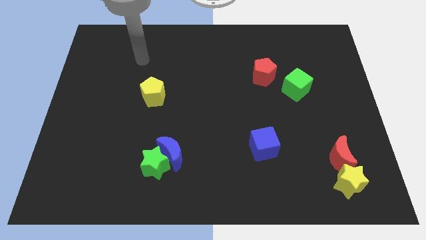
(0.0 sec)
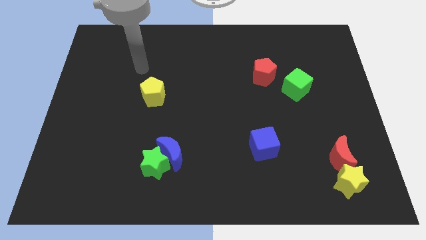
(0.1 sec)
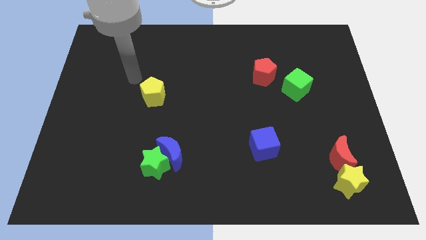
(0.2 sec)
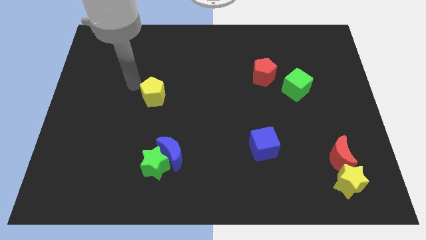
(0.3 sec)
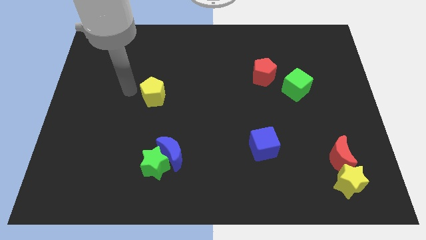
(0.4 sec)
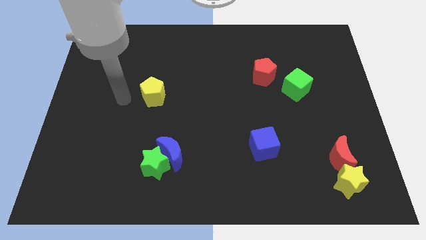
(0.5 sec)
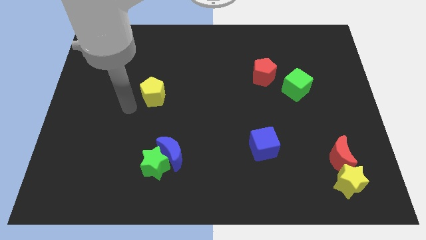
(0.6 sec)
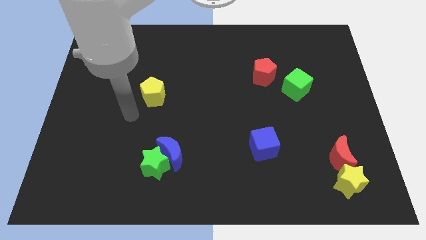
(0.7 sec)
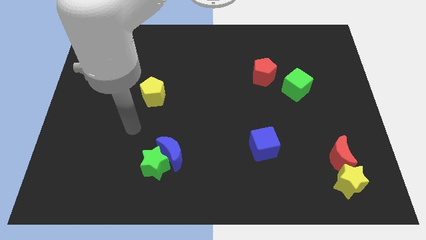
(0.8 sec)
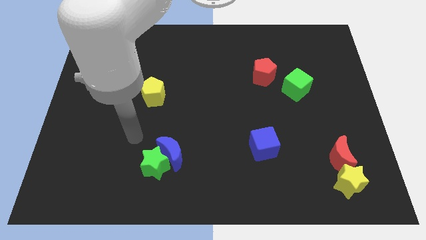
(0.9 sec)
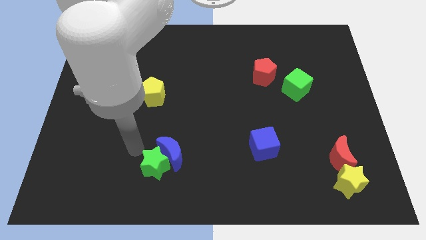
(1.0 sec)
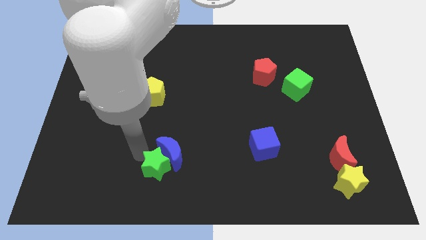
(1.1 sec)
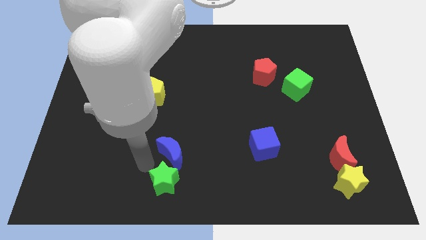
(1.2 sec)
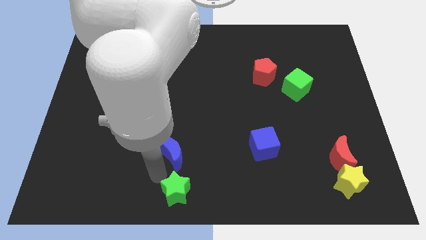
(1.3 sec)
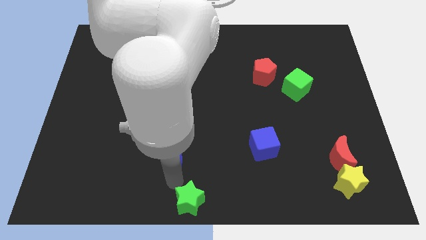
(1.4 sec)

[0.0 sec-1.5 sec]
pull the blue moon apart from the green star

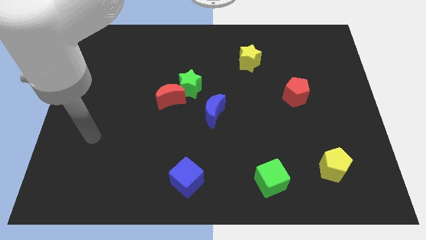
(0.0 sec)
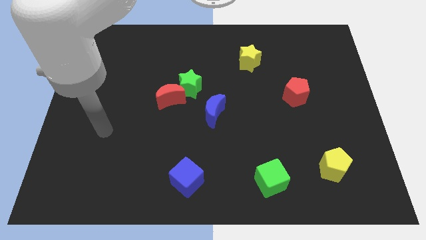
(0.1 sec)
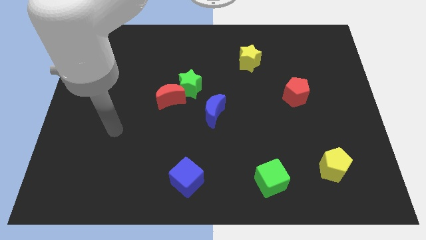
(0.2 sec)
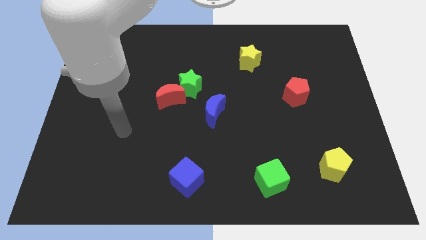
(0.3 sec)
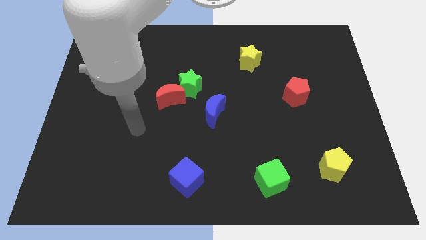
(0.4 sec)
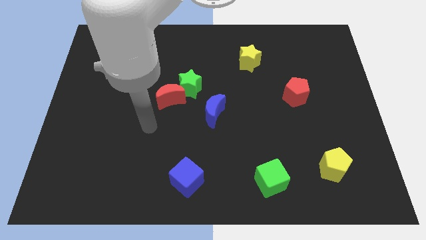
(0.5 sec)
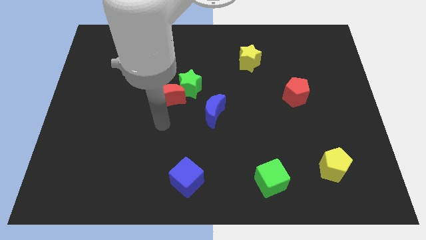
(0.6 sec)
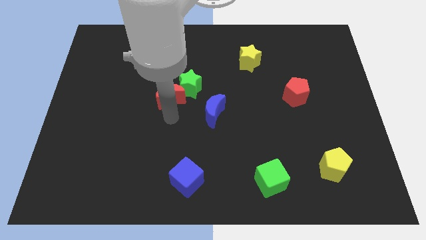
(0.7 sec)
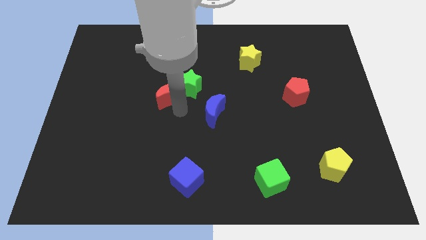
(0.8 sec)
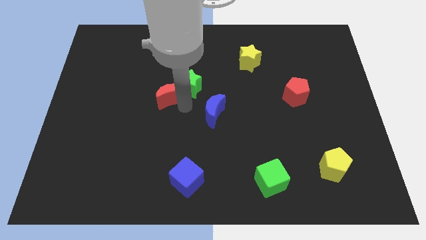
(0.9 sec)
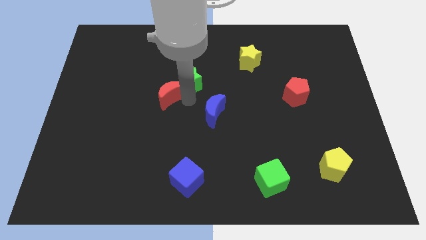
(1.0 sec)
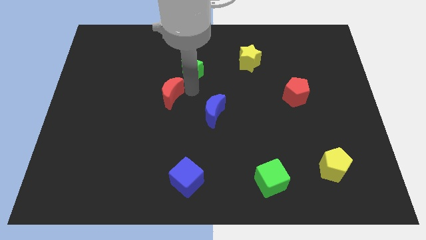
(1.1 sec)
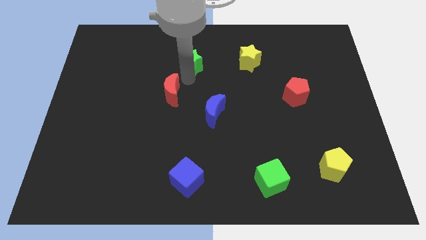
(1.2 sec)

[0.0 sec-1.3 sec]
move the red moon away from the green star

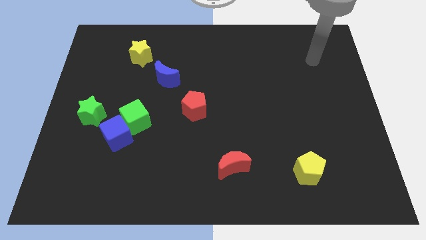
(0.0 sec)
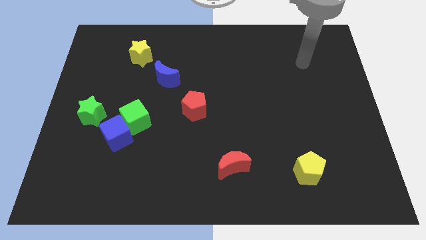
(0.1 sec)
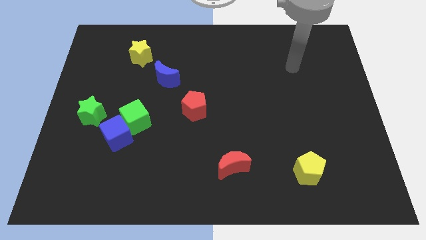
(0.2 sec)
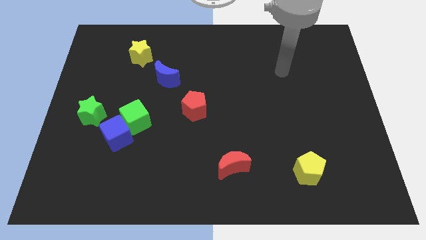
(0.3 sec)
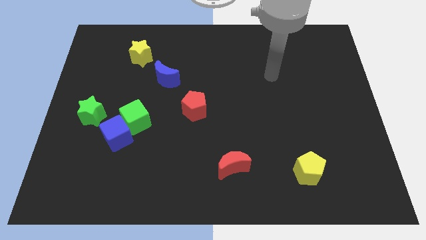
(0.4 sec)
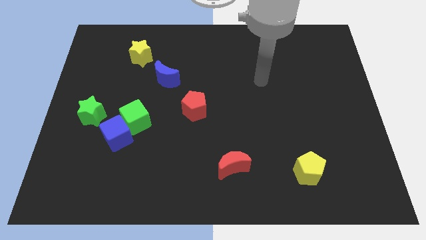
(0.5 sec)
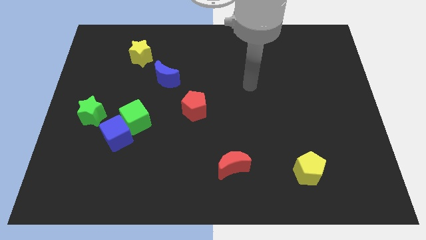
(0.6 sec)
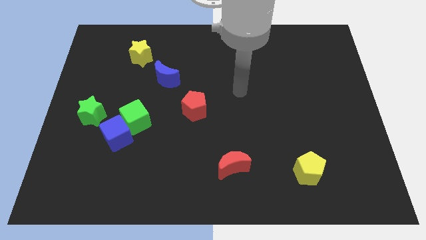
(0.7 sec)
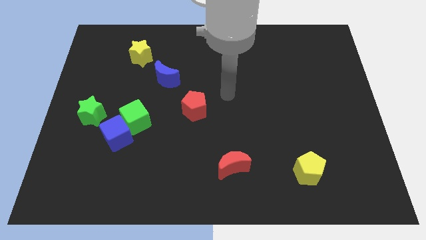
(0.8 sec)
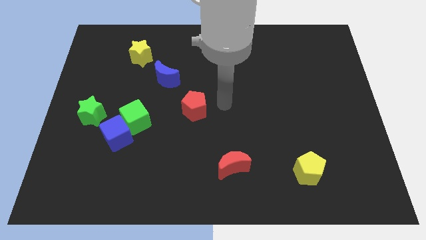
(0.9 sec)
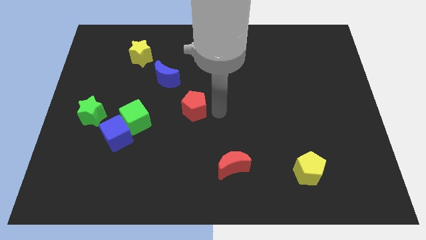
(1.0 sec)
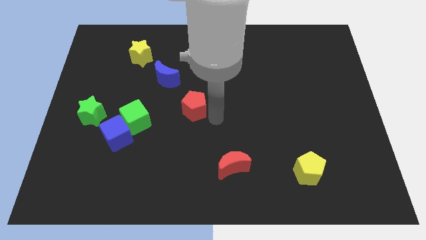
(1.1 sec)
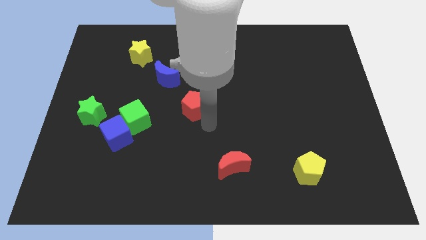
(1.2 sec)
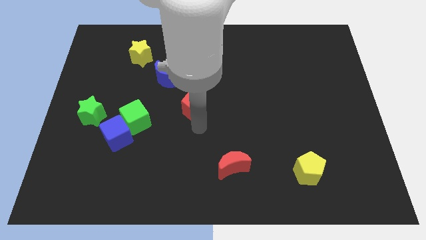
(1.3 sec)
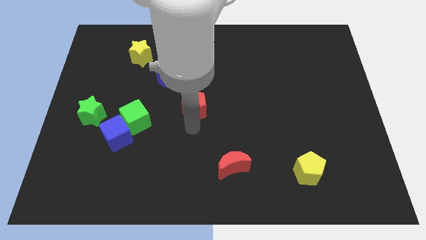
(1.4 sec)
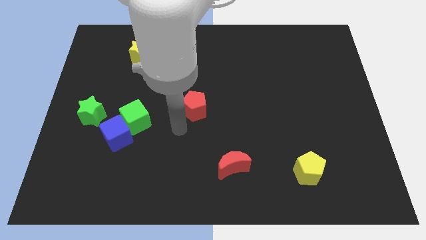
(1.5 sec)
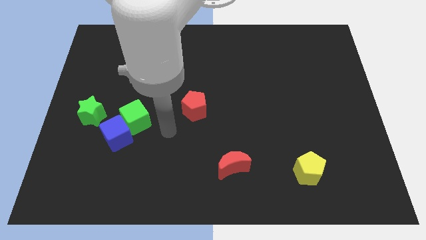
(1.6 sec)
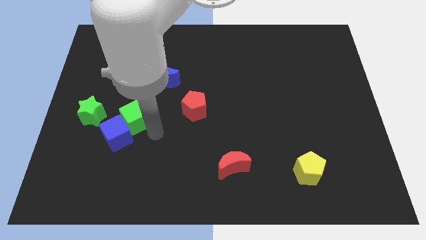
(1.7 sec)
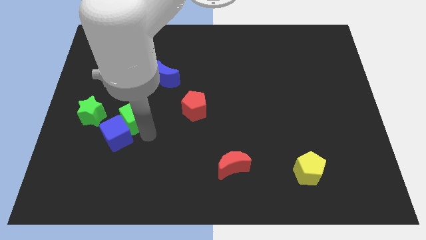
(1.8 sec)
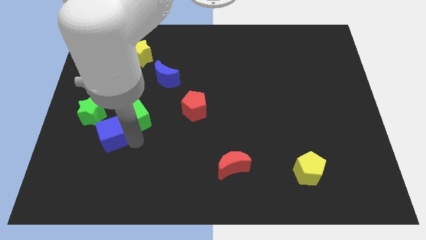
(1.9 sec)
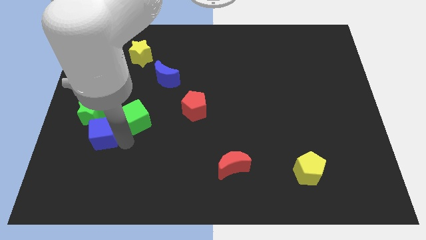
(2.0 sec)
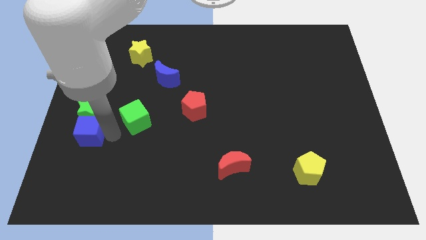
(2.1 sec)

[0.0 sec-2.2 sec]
separate the green cube from the blue cube

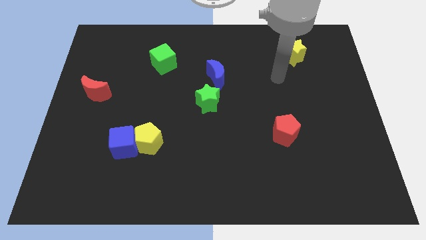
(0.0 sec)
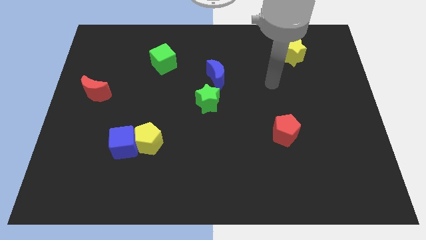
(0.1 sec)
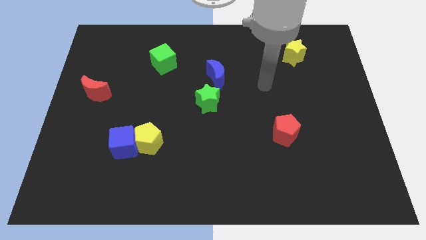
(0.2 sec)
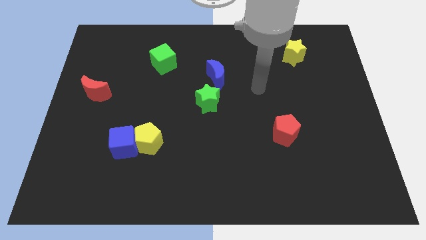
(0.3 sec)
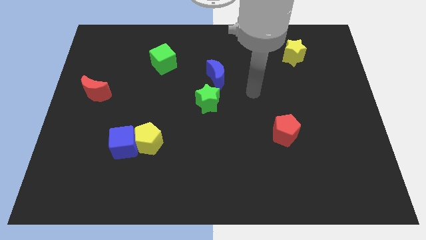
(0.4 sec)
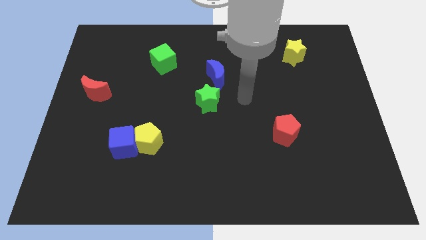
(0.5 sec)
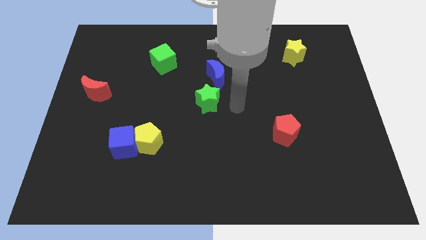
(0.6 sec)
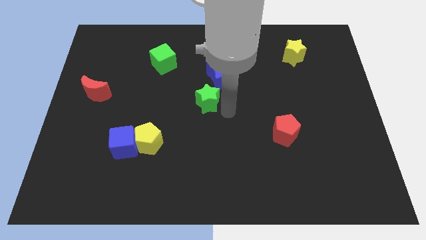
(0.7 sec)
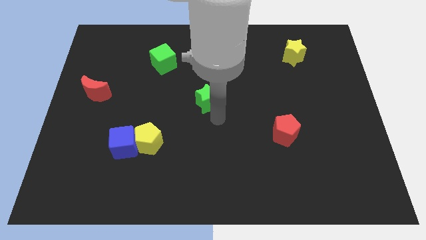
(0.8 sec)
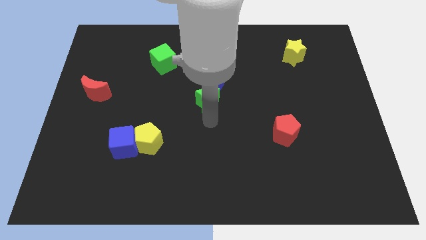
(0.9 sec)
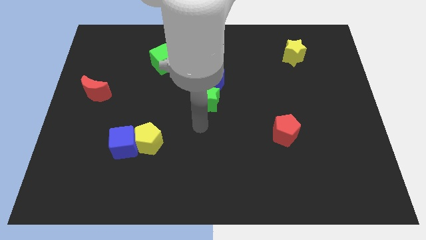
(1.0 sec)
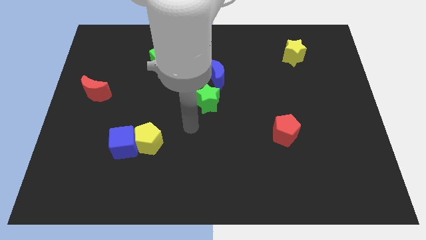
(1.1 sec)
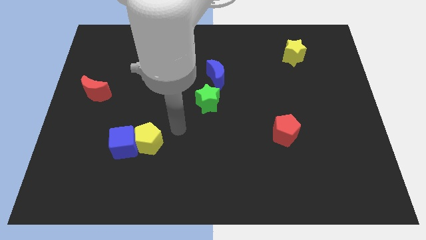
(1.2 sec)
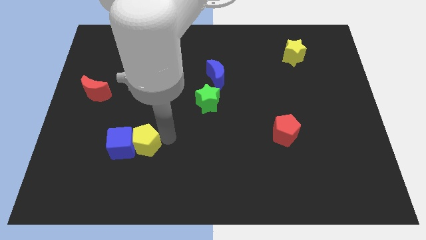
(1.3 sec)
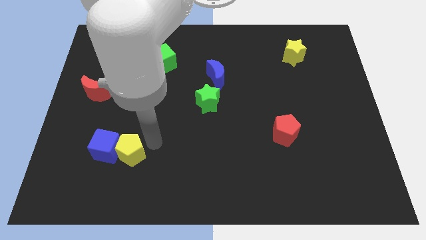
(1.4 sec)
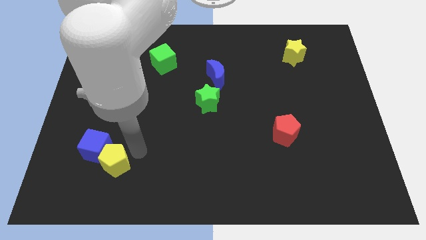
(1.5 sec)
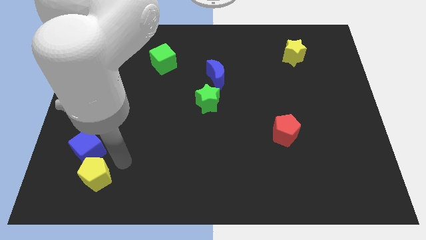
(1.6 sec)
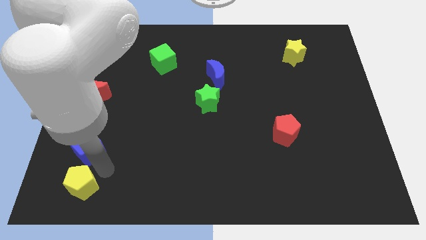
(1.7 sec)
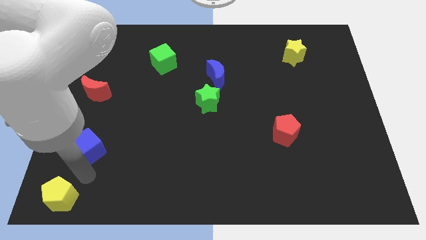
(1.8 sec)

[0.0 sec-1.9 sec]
pull the blue cube apart from the yellow pentagon

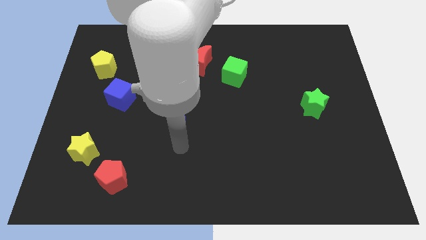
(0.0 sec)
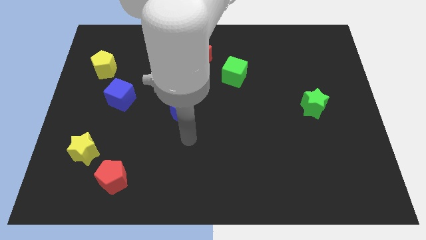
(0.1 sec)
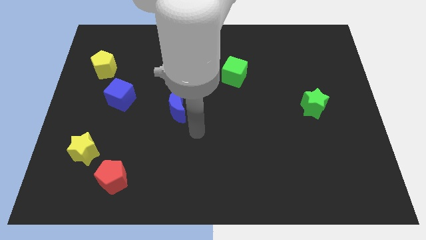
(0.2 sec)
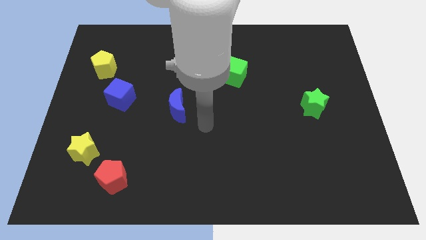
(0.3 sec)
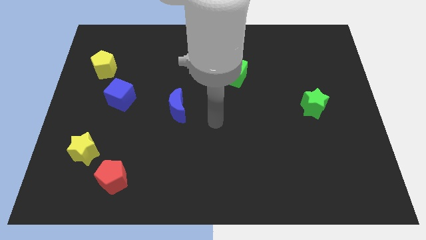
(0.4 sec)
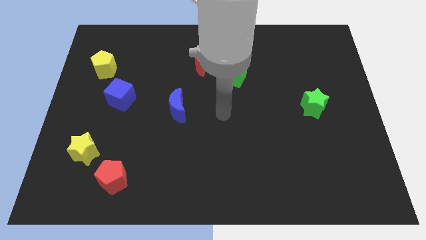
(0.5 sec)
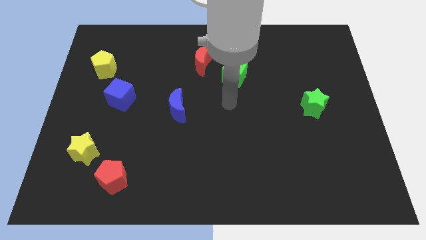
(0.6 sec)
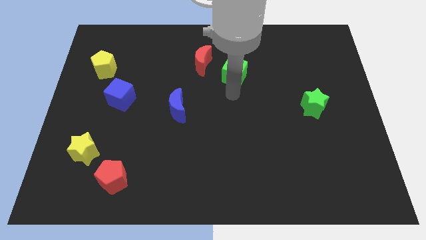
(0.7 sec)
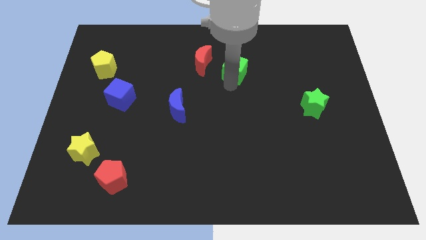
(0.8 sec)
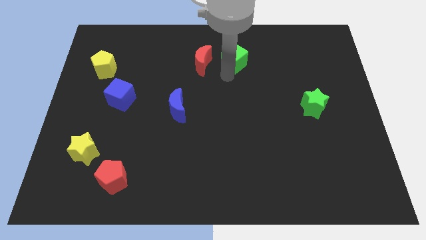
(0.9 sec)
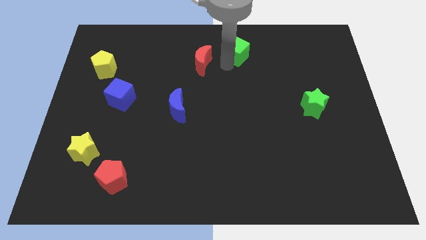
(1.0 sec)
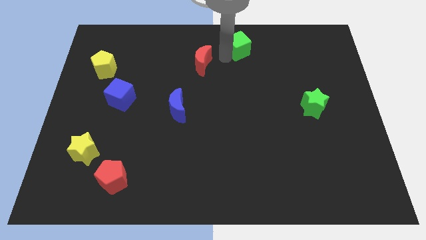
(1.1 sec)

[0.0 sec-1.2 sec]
move the red moon away from the green cube

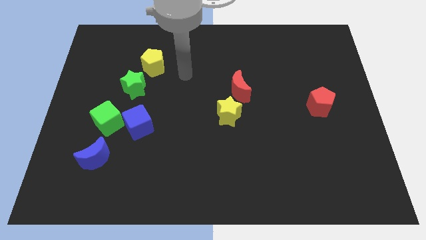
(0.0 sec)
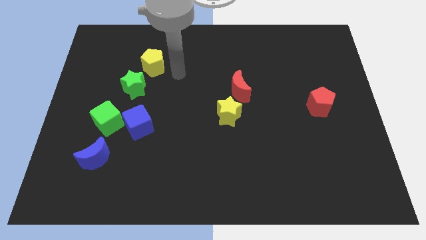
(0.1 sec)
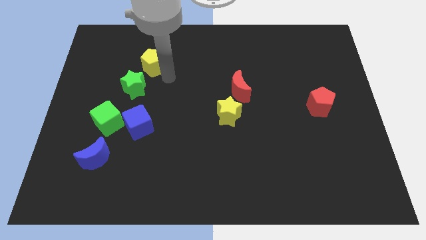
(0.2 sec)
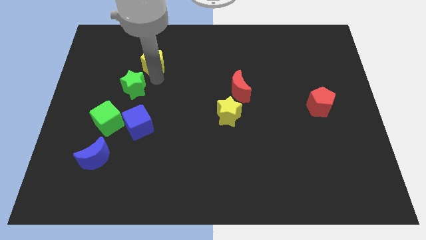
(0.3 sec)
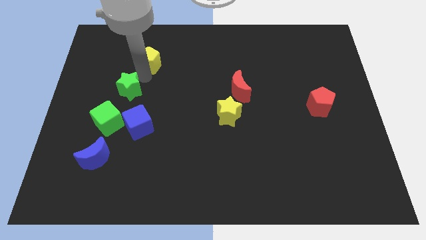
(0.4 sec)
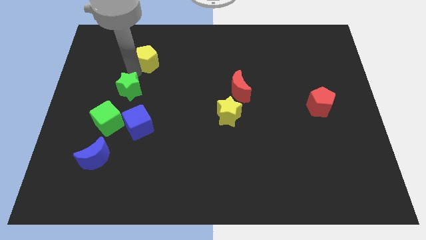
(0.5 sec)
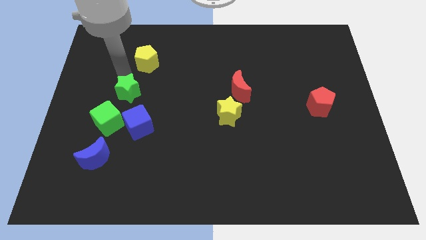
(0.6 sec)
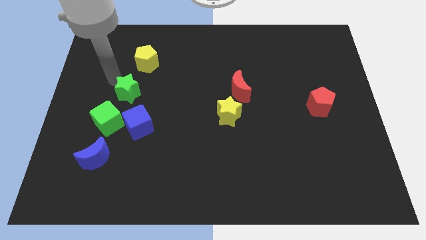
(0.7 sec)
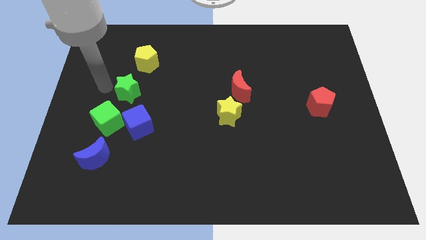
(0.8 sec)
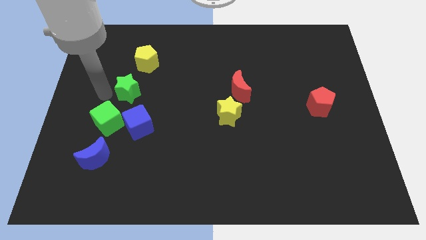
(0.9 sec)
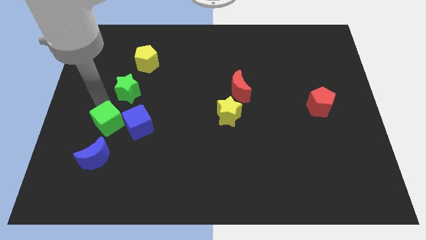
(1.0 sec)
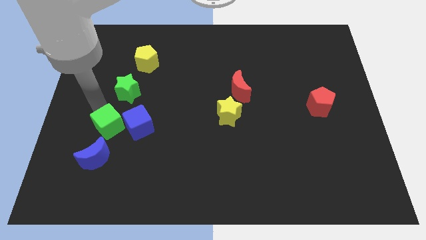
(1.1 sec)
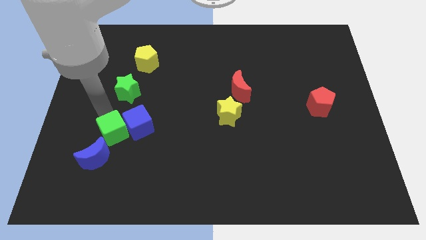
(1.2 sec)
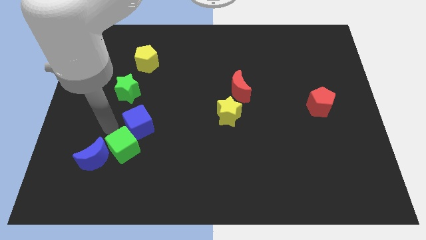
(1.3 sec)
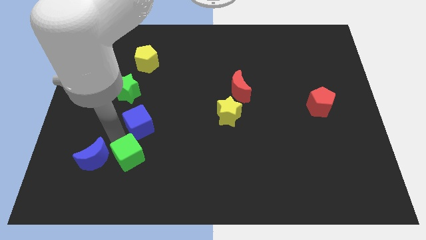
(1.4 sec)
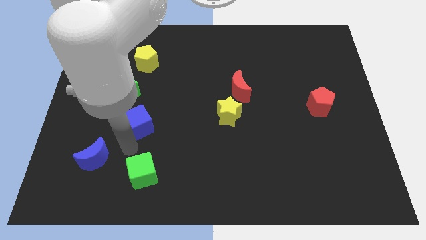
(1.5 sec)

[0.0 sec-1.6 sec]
pull the blue cube apart from the green cube
